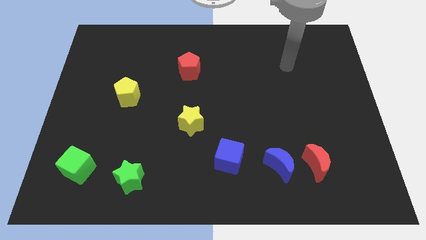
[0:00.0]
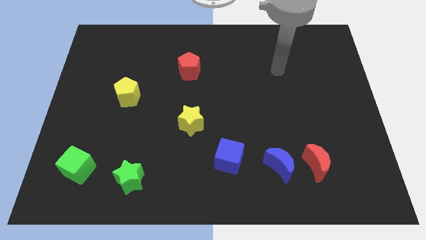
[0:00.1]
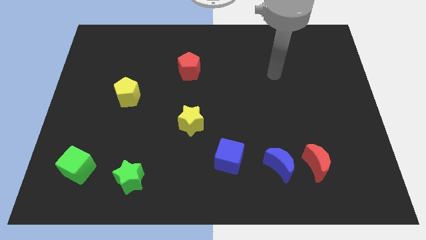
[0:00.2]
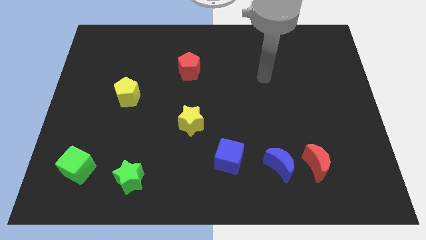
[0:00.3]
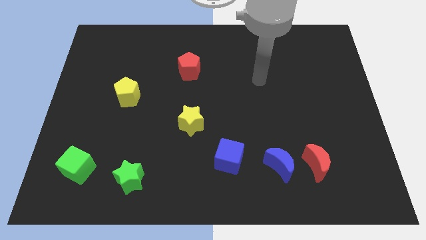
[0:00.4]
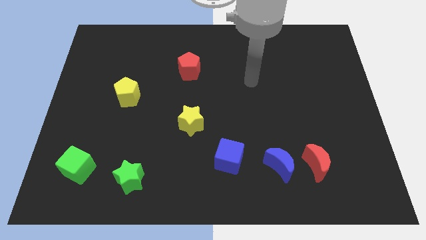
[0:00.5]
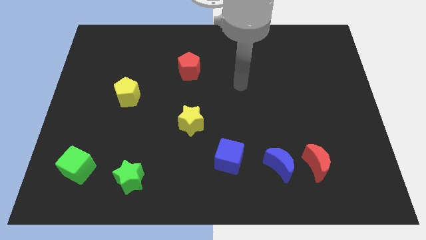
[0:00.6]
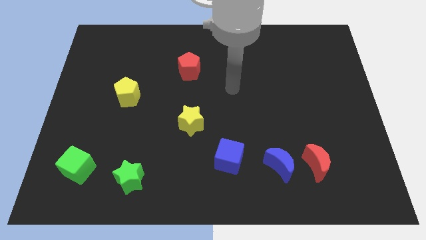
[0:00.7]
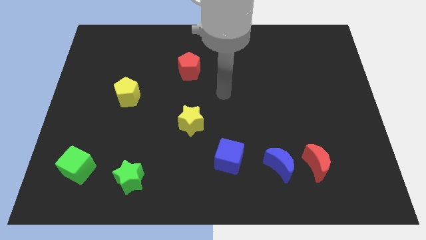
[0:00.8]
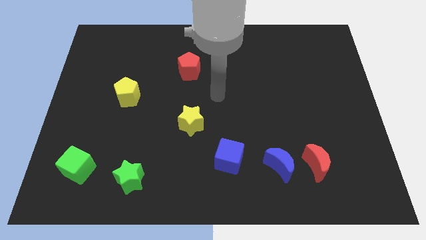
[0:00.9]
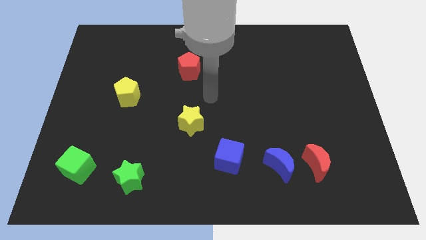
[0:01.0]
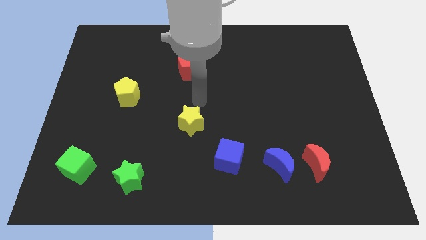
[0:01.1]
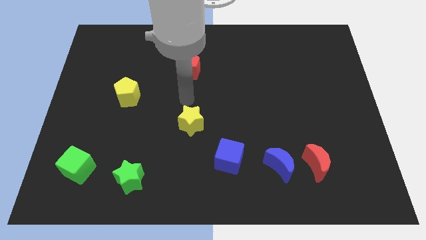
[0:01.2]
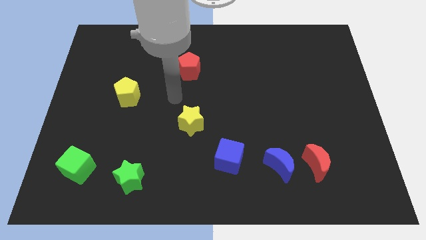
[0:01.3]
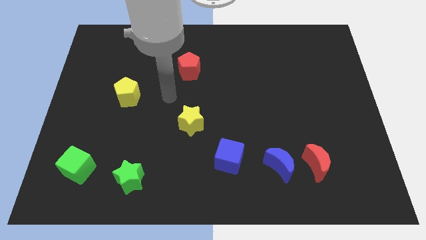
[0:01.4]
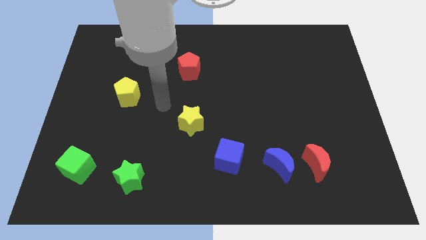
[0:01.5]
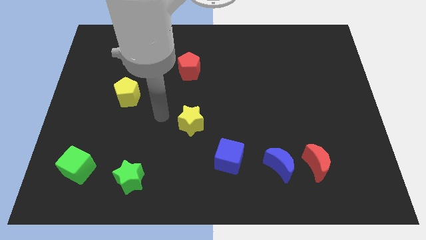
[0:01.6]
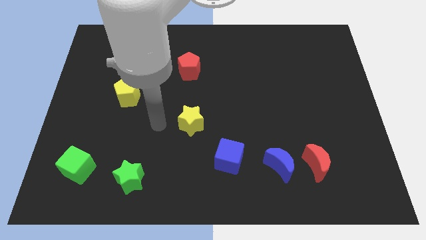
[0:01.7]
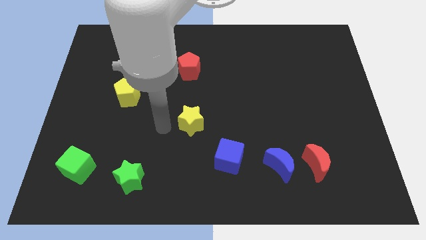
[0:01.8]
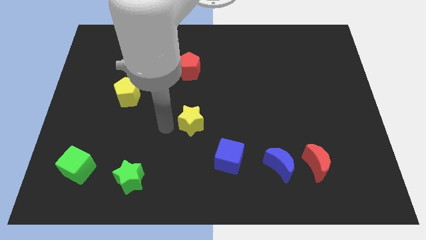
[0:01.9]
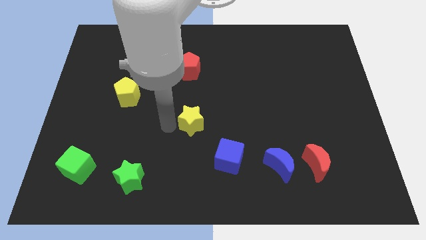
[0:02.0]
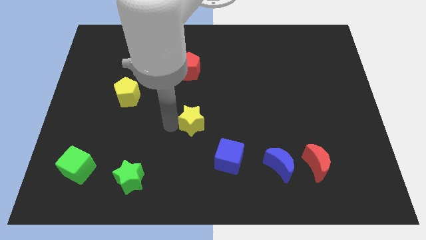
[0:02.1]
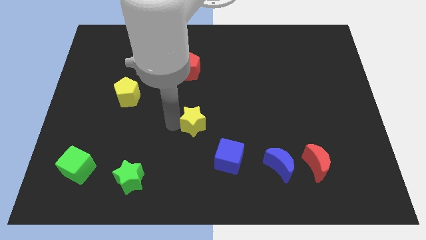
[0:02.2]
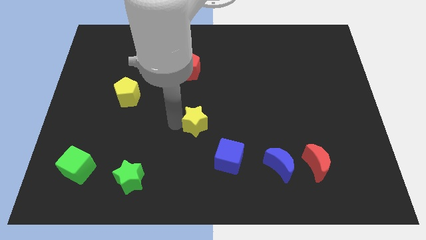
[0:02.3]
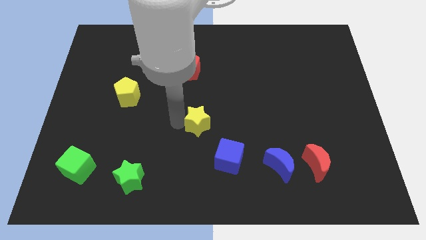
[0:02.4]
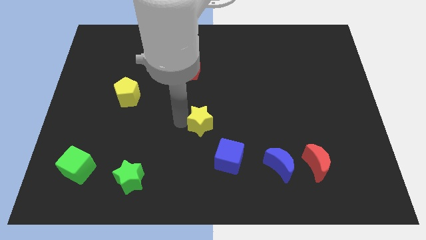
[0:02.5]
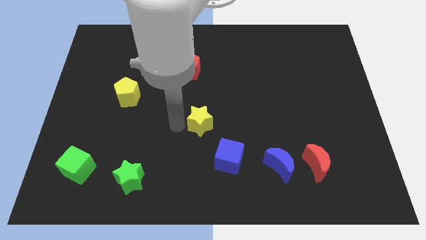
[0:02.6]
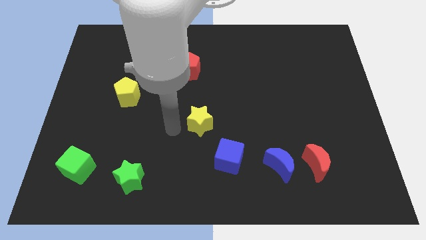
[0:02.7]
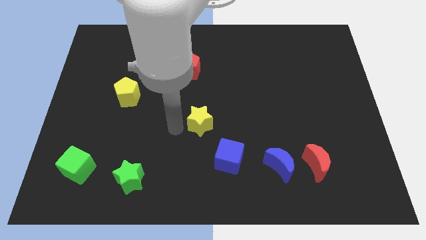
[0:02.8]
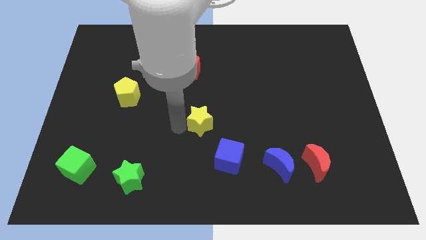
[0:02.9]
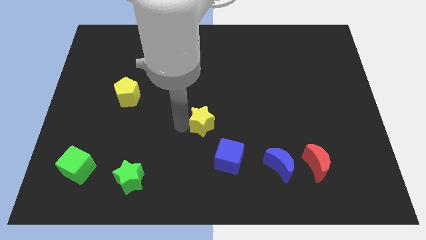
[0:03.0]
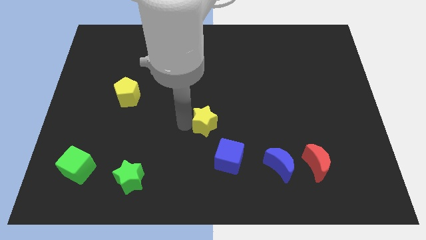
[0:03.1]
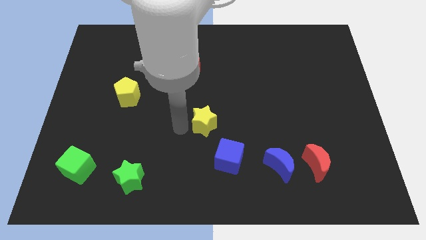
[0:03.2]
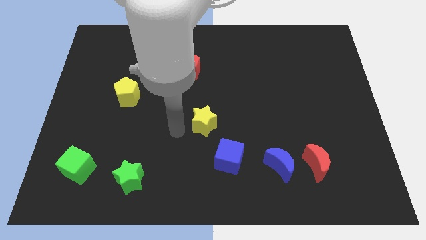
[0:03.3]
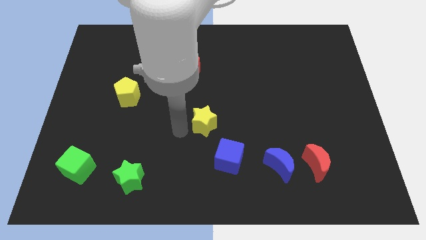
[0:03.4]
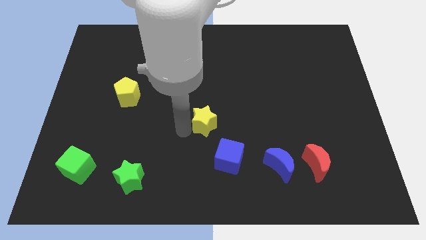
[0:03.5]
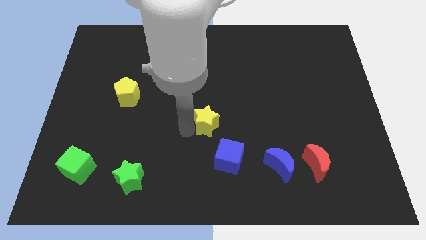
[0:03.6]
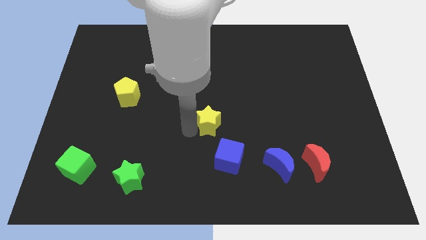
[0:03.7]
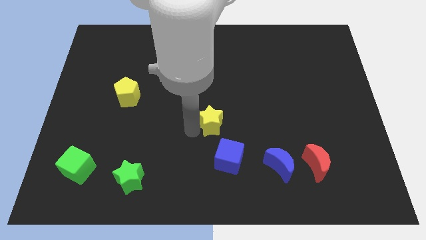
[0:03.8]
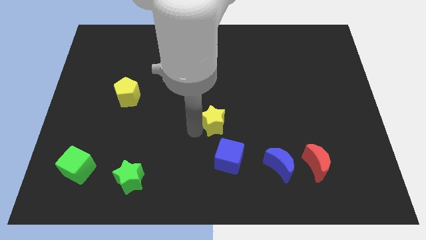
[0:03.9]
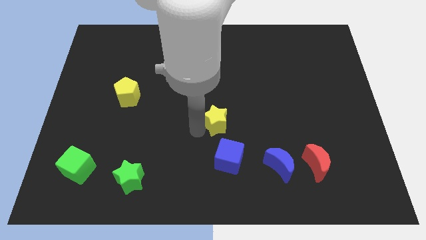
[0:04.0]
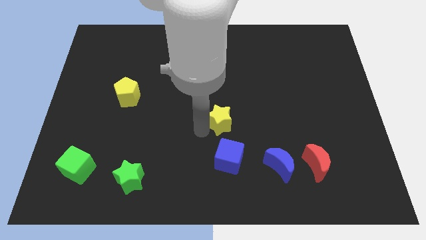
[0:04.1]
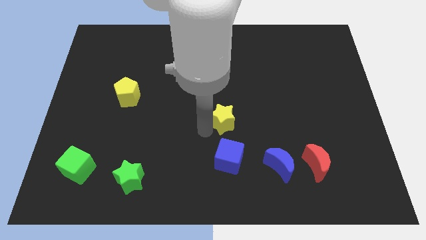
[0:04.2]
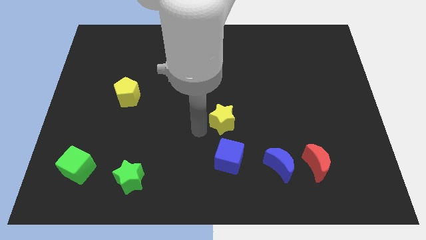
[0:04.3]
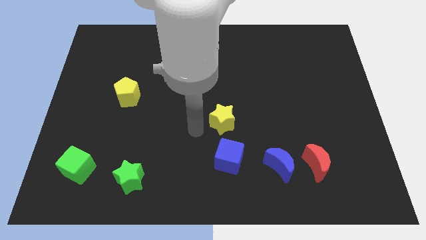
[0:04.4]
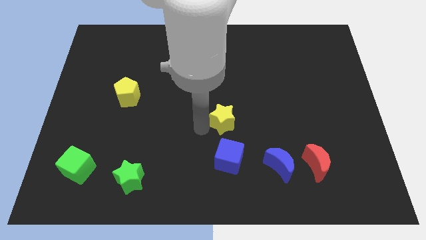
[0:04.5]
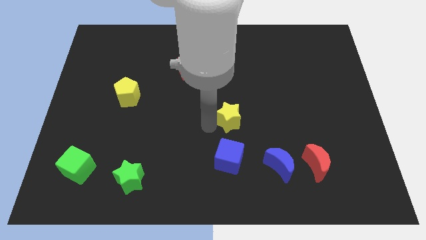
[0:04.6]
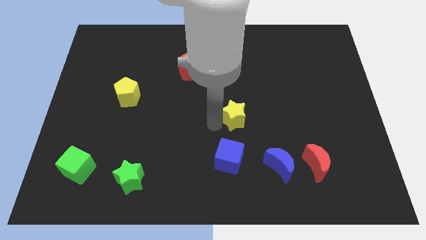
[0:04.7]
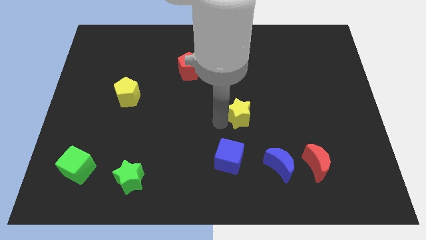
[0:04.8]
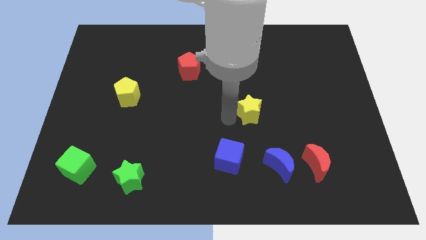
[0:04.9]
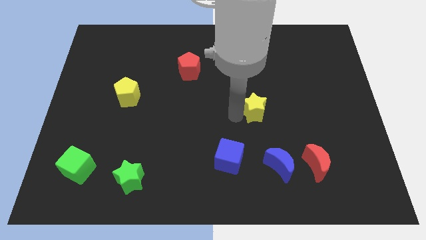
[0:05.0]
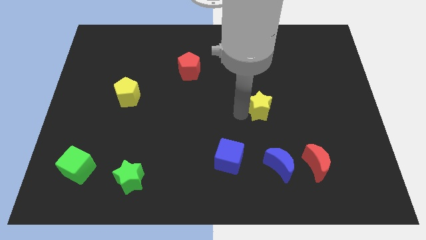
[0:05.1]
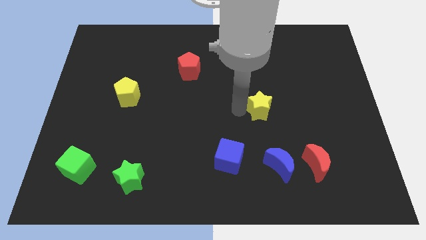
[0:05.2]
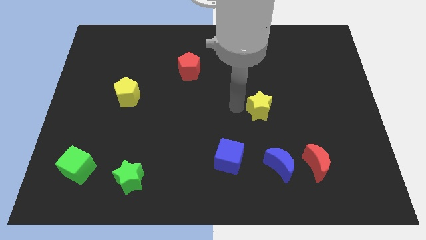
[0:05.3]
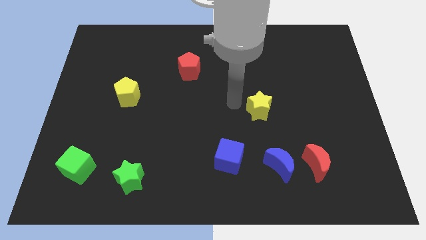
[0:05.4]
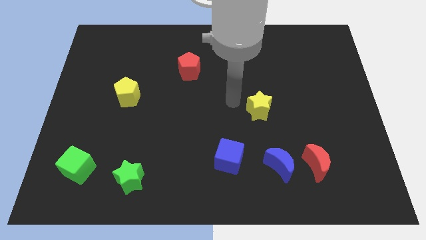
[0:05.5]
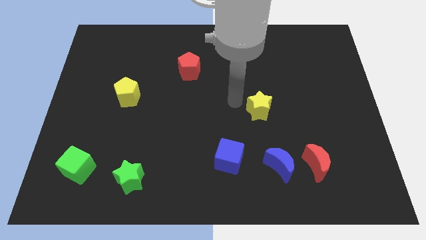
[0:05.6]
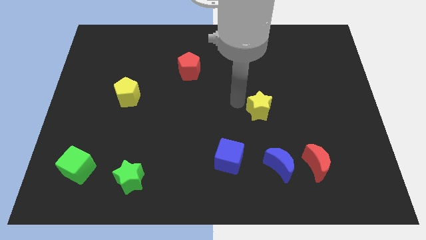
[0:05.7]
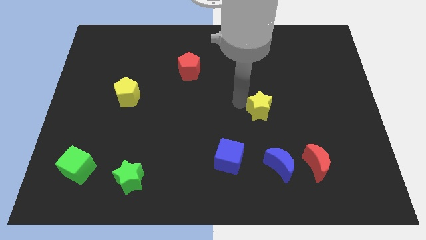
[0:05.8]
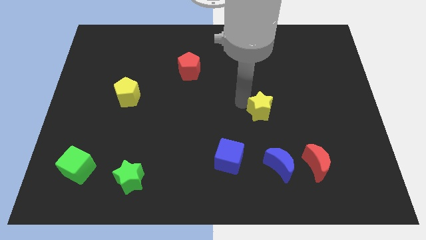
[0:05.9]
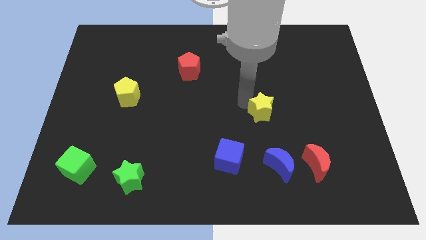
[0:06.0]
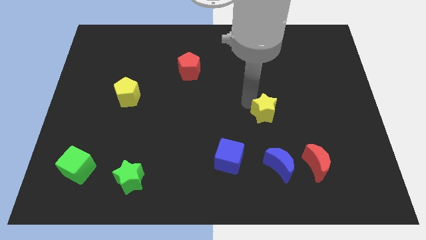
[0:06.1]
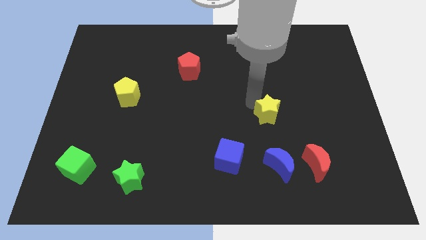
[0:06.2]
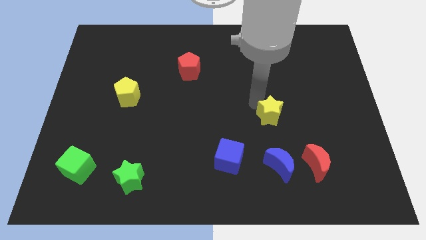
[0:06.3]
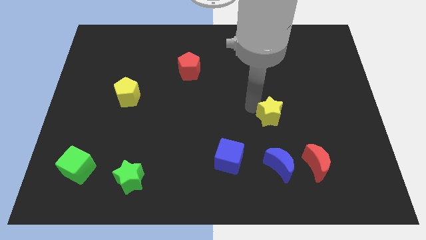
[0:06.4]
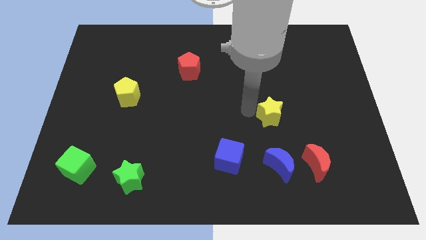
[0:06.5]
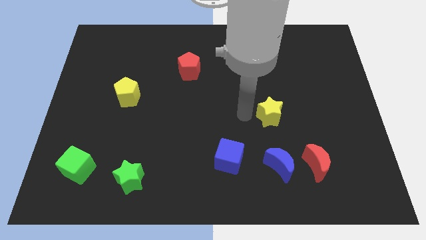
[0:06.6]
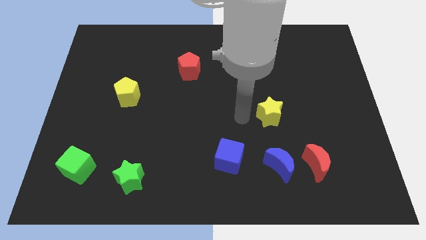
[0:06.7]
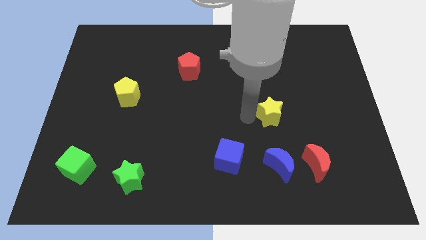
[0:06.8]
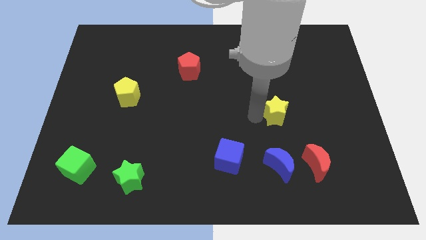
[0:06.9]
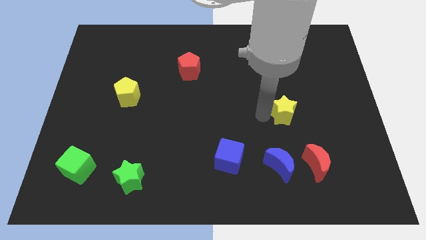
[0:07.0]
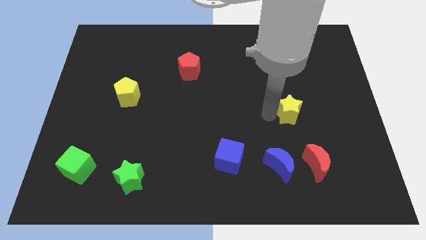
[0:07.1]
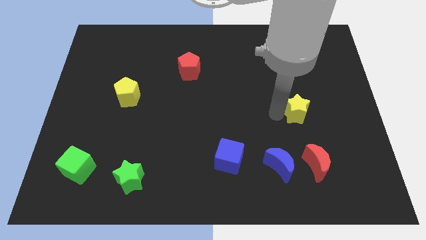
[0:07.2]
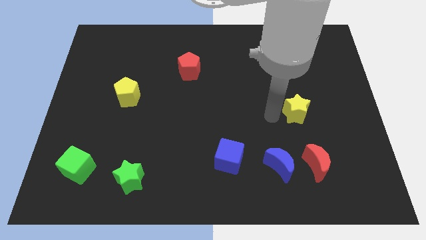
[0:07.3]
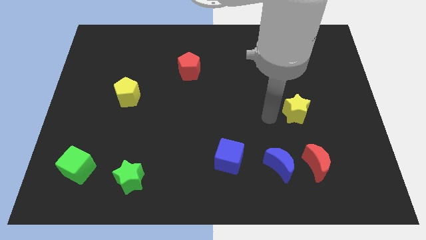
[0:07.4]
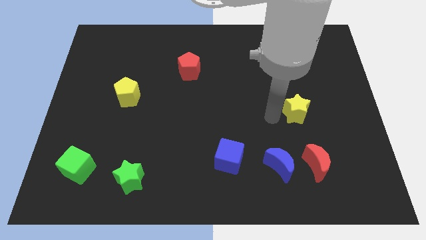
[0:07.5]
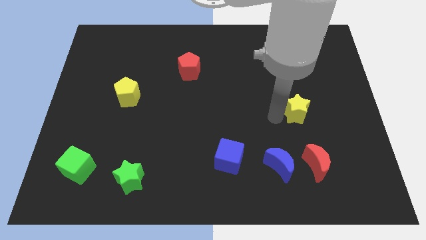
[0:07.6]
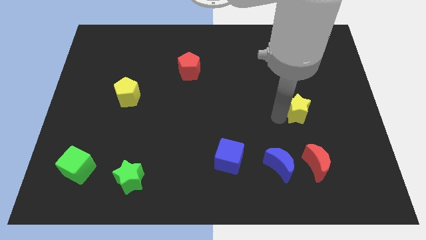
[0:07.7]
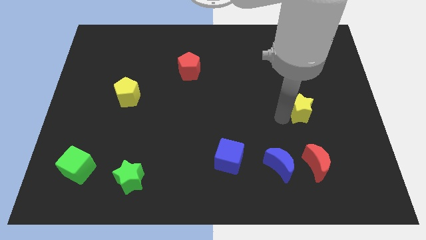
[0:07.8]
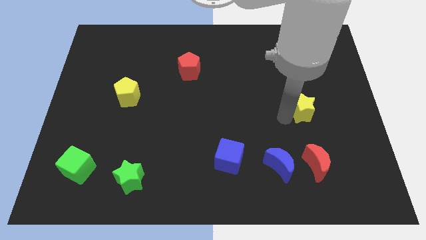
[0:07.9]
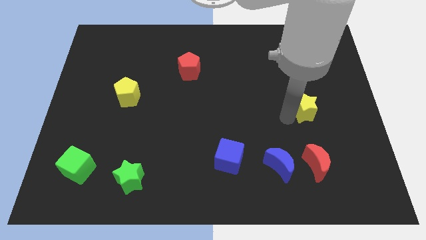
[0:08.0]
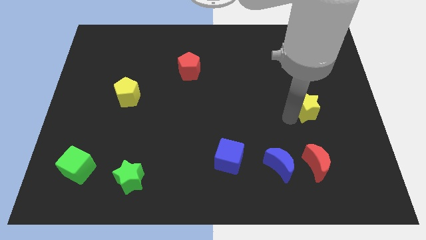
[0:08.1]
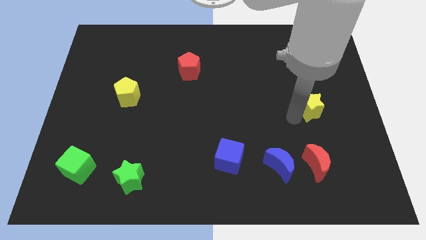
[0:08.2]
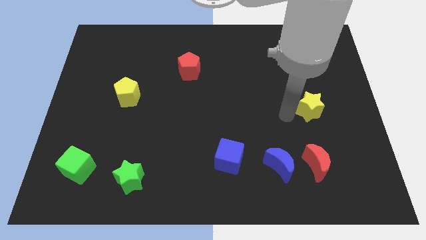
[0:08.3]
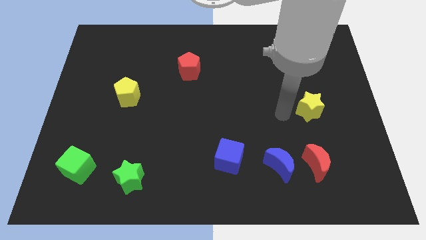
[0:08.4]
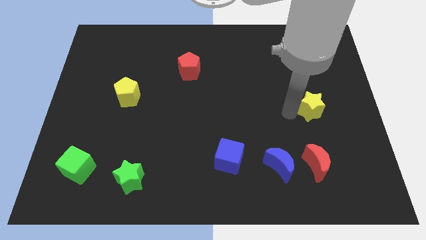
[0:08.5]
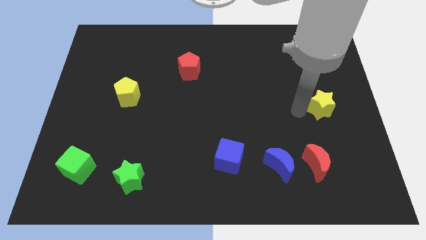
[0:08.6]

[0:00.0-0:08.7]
put the yellow star to the right side of the board
